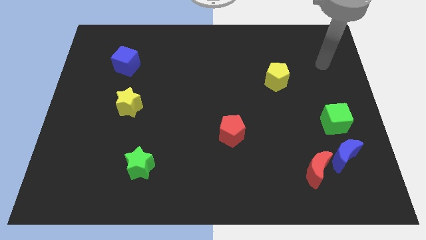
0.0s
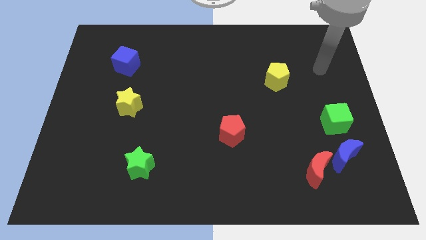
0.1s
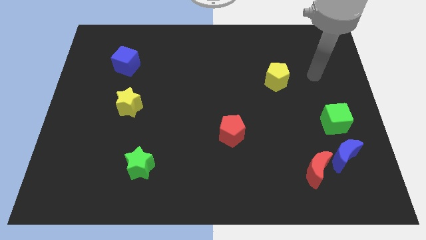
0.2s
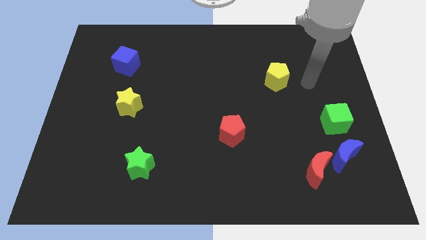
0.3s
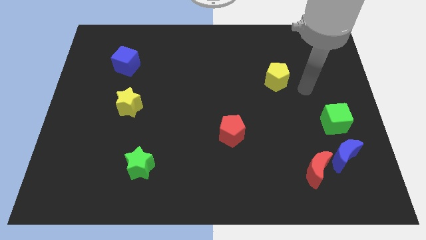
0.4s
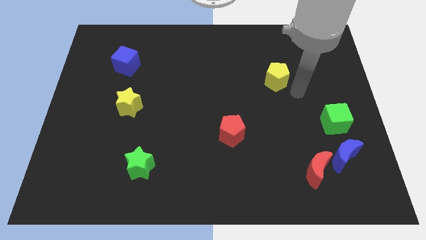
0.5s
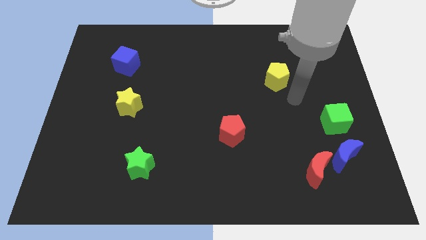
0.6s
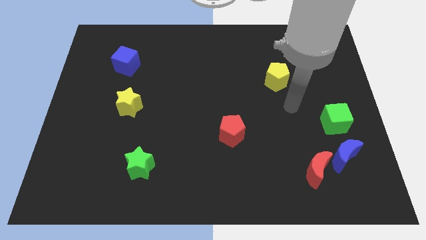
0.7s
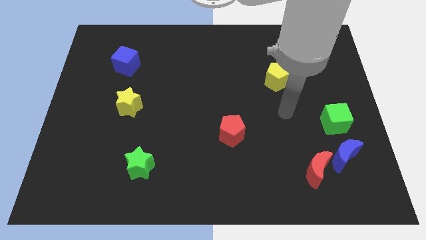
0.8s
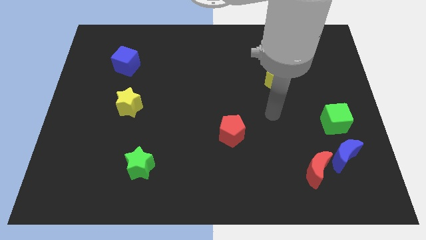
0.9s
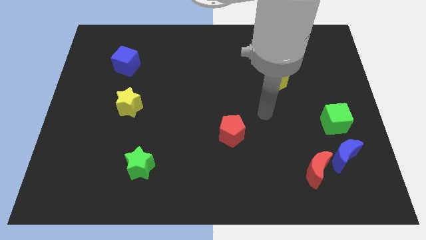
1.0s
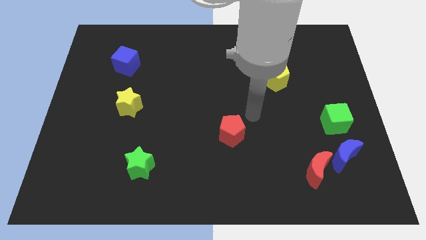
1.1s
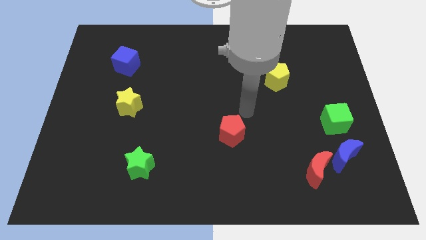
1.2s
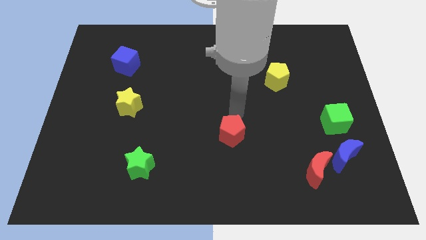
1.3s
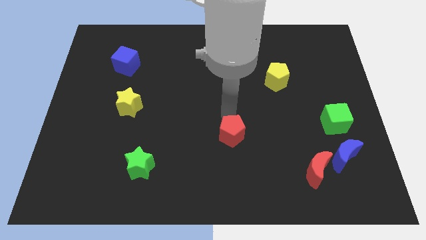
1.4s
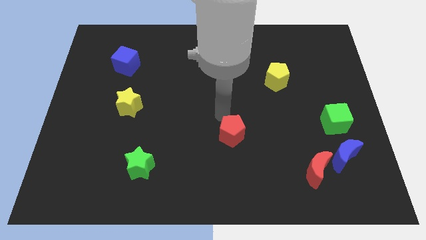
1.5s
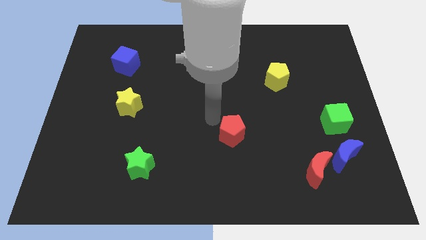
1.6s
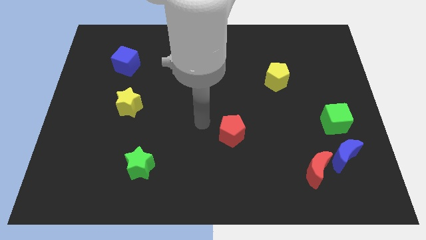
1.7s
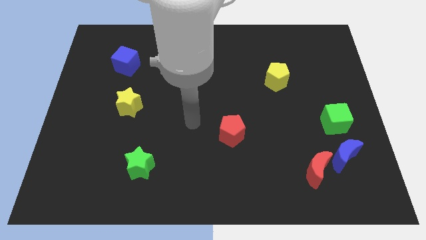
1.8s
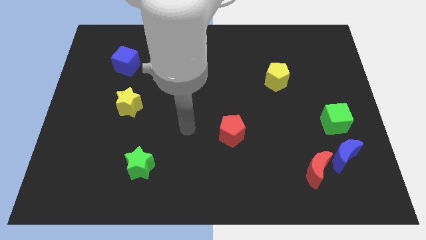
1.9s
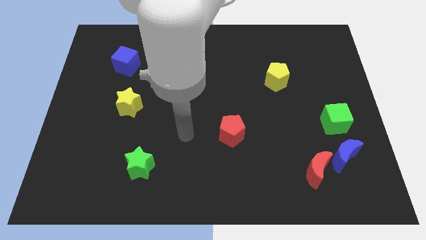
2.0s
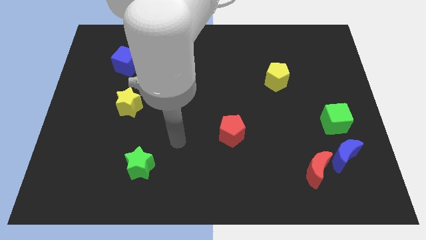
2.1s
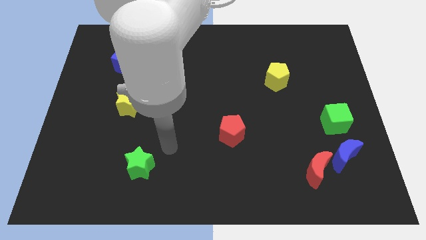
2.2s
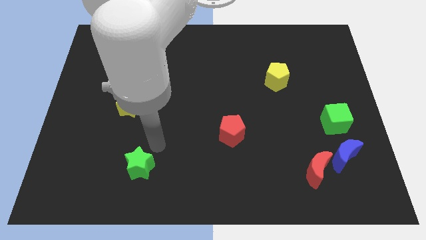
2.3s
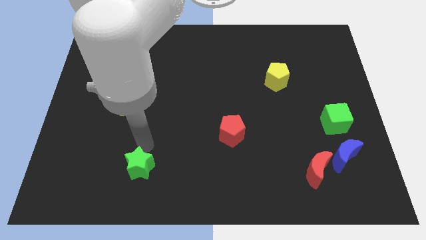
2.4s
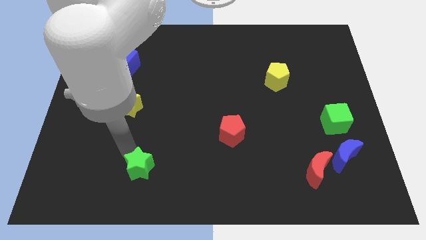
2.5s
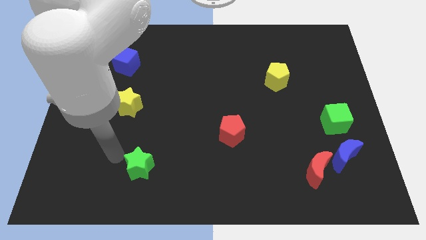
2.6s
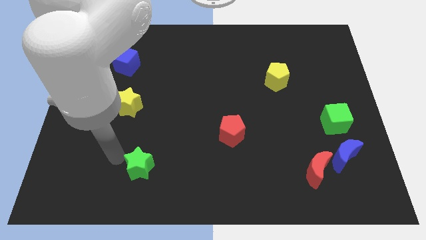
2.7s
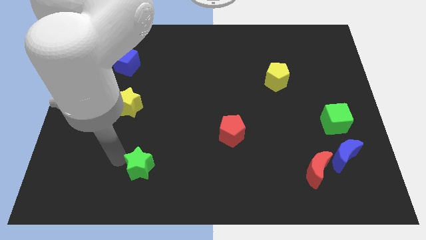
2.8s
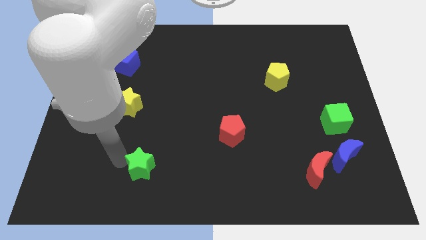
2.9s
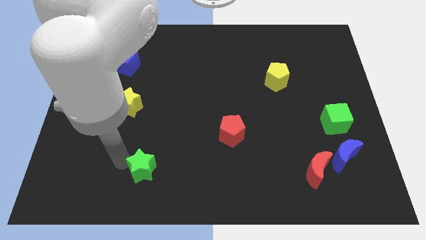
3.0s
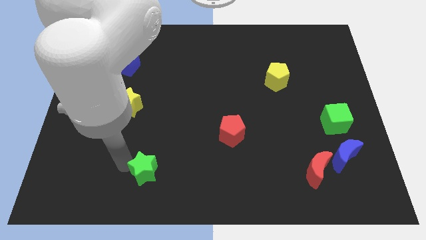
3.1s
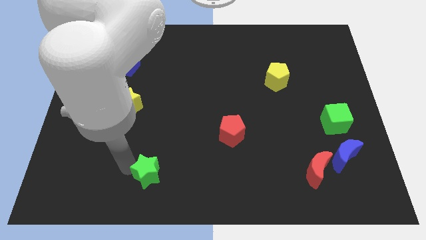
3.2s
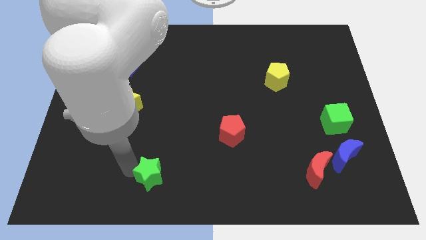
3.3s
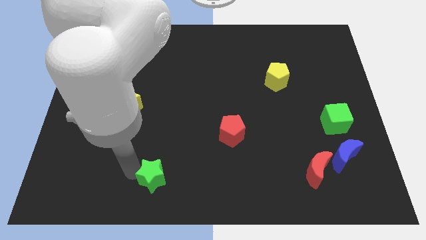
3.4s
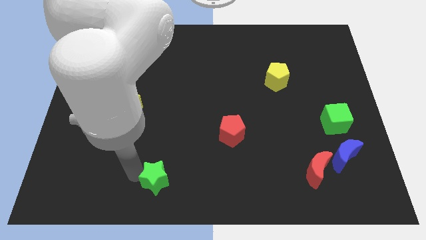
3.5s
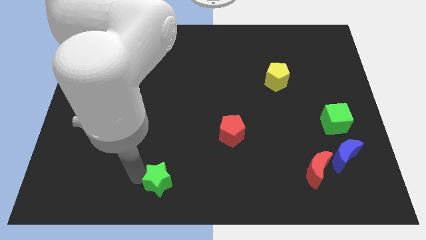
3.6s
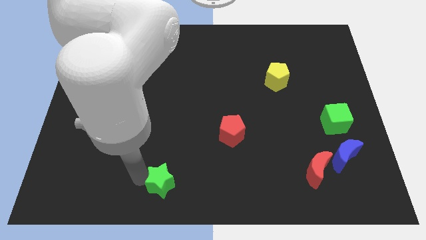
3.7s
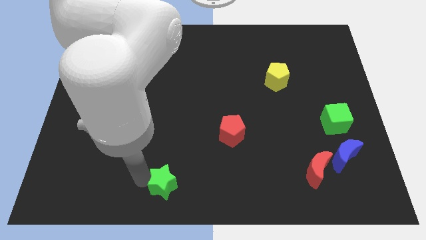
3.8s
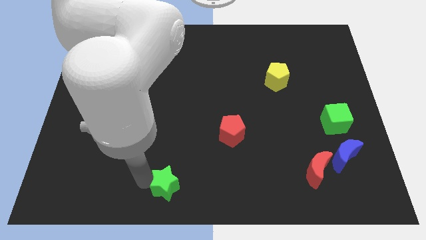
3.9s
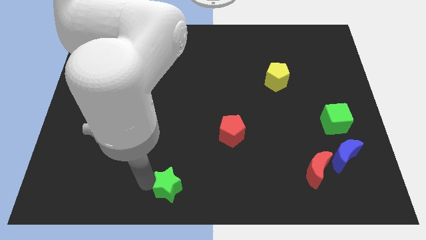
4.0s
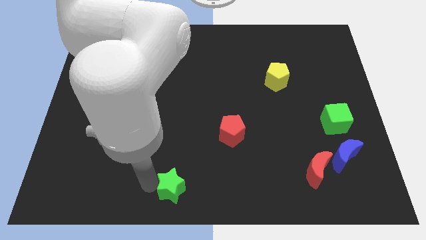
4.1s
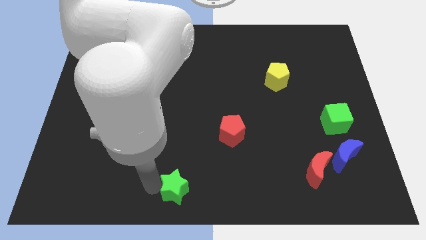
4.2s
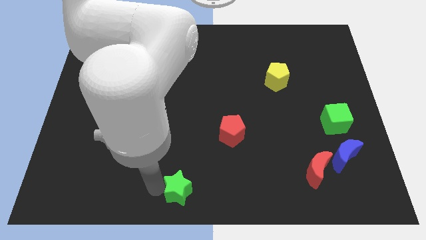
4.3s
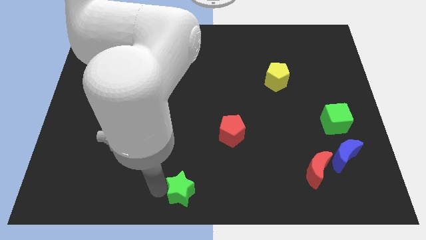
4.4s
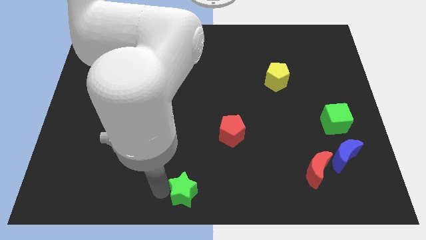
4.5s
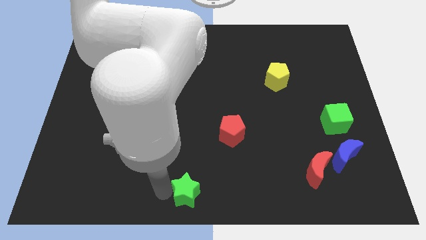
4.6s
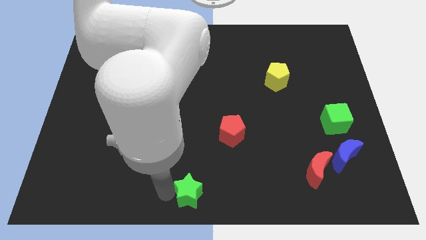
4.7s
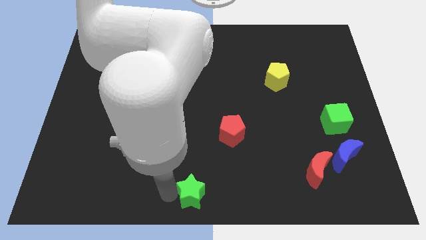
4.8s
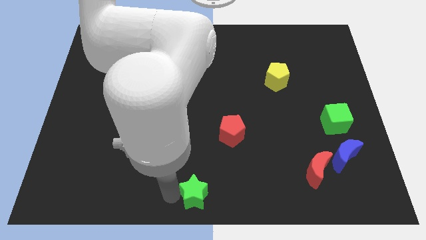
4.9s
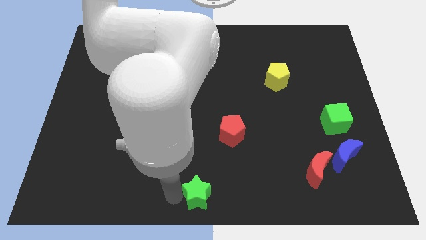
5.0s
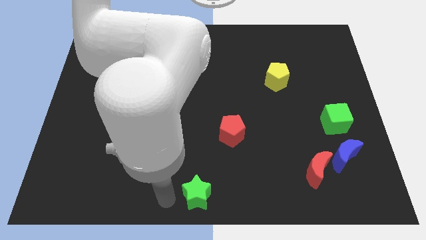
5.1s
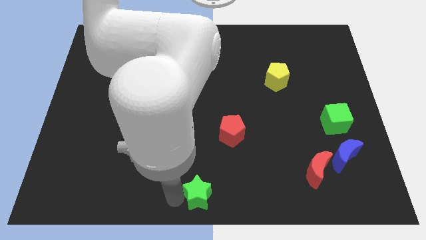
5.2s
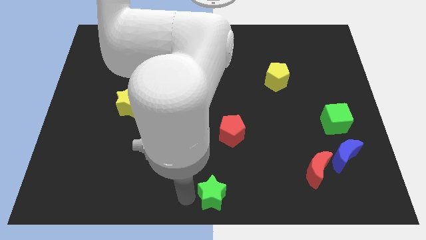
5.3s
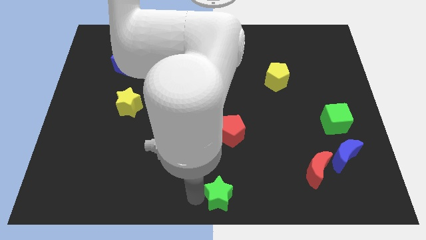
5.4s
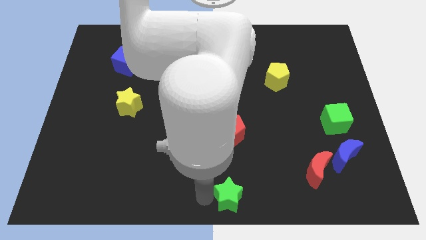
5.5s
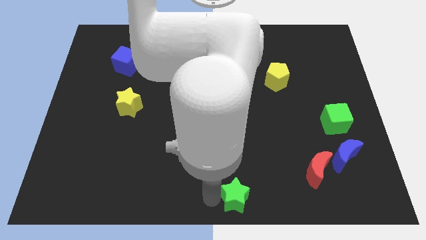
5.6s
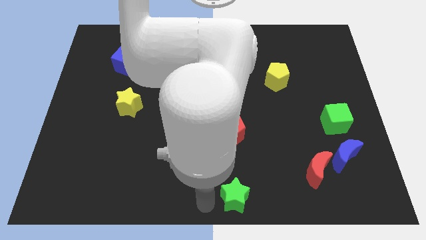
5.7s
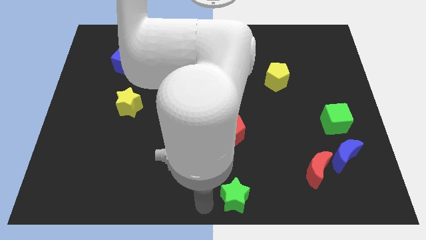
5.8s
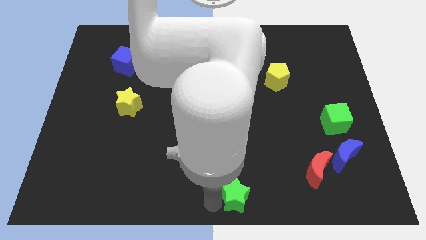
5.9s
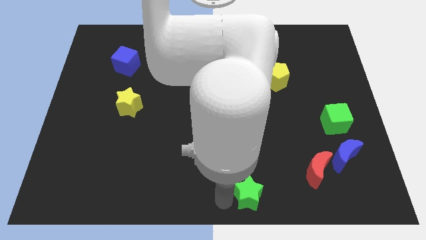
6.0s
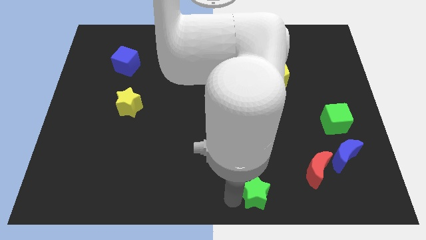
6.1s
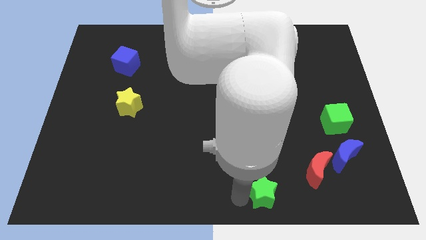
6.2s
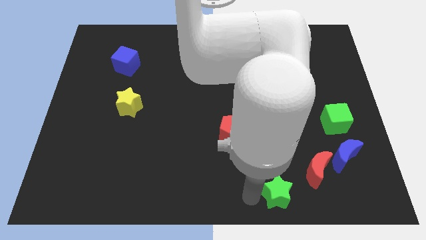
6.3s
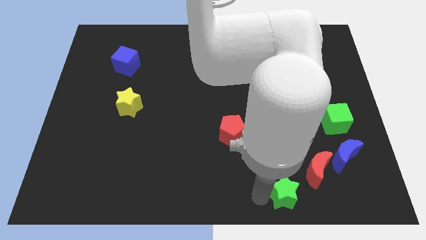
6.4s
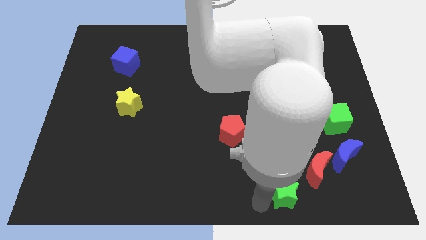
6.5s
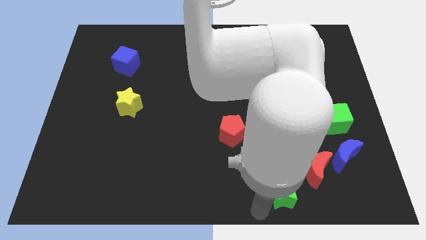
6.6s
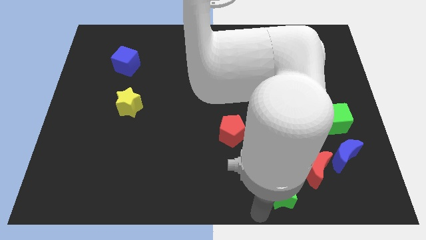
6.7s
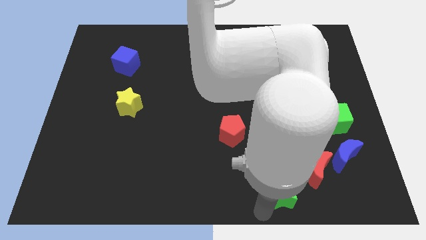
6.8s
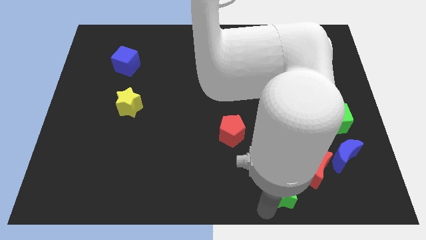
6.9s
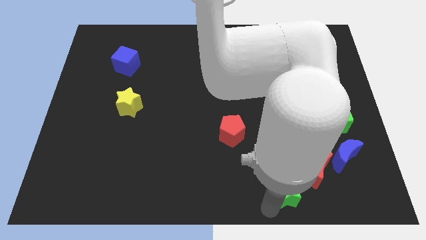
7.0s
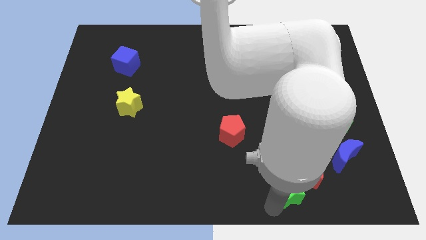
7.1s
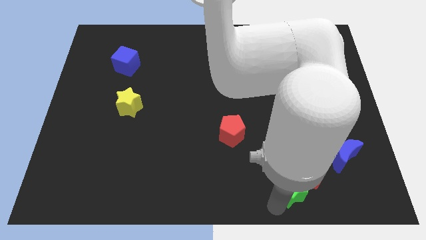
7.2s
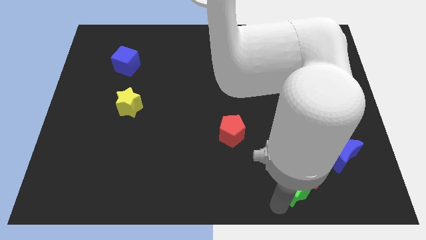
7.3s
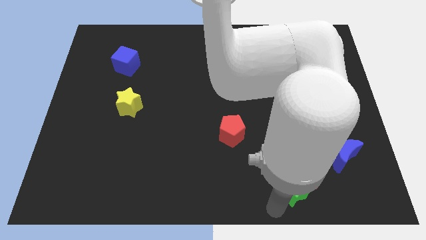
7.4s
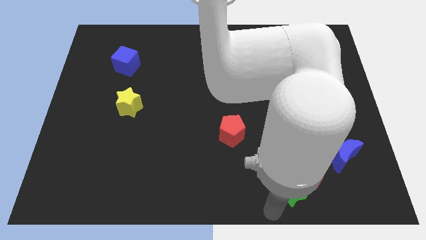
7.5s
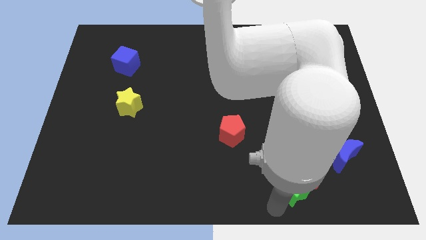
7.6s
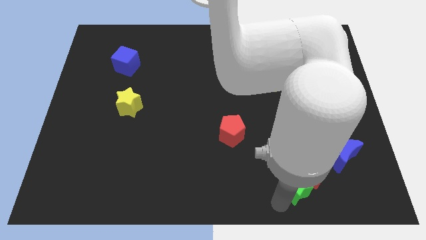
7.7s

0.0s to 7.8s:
move the green star next to the red moon
